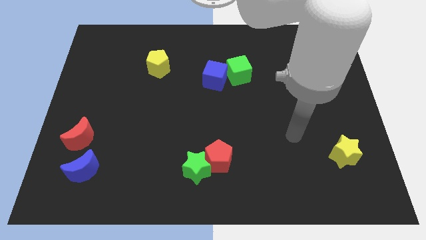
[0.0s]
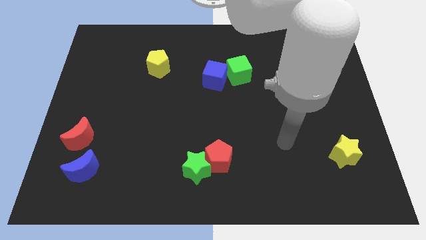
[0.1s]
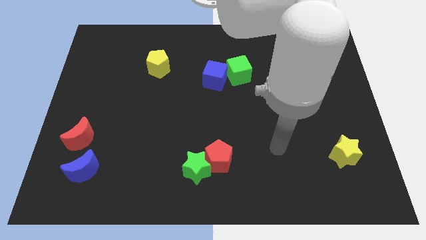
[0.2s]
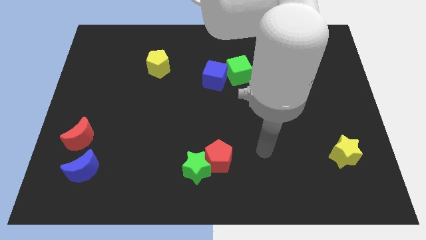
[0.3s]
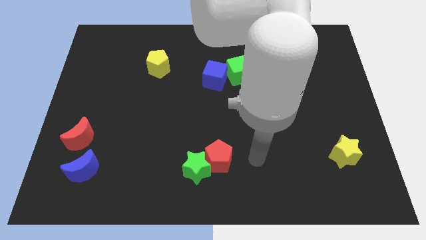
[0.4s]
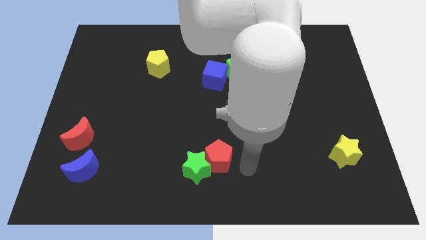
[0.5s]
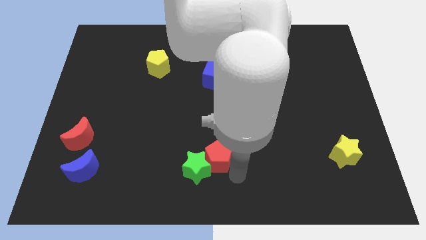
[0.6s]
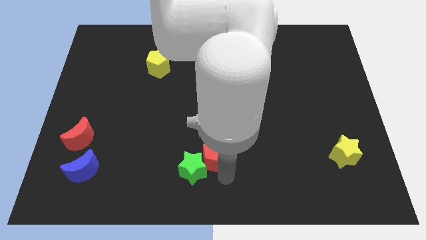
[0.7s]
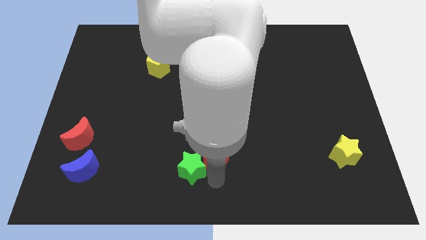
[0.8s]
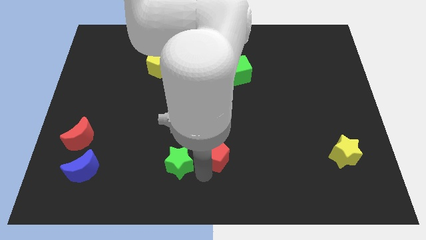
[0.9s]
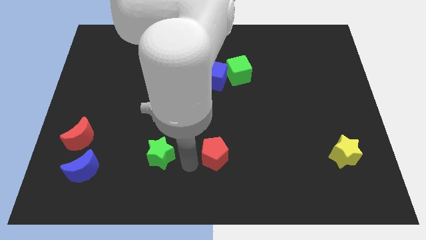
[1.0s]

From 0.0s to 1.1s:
move the red pentagon away from the green star

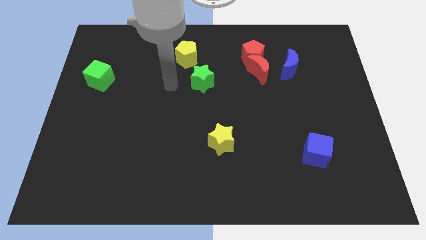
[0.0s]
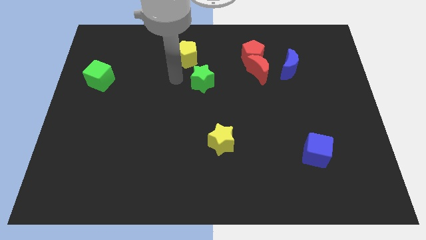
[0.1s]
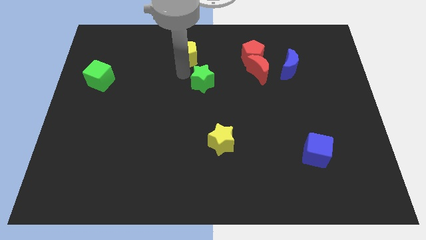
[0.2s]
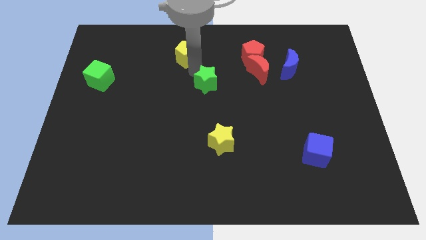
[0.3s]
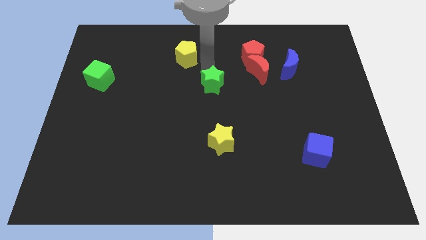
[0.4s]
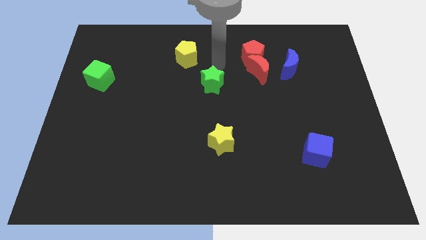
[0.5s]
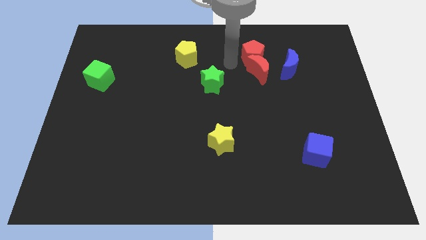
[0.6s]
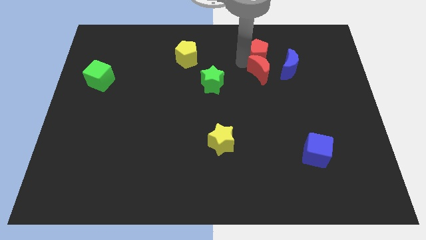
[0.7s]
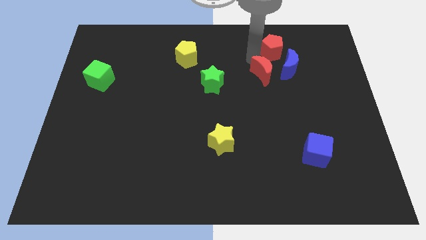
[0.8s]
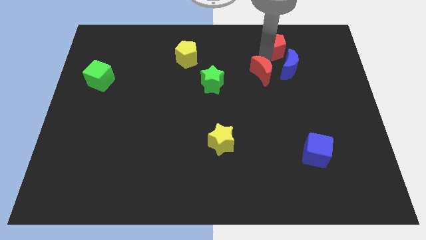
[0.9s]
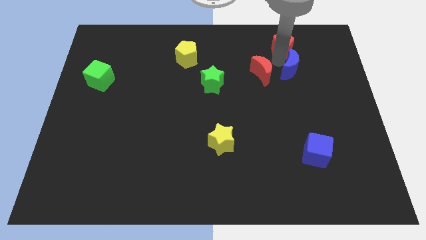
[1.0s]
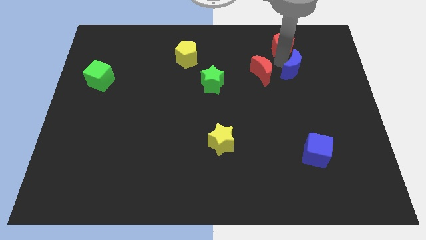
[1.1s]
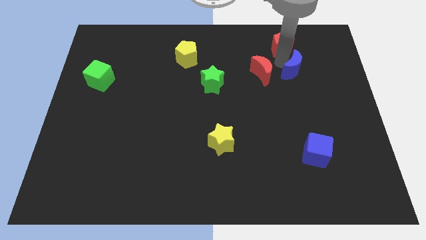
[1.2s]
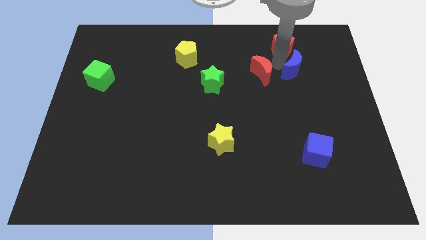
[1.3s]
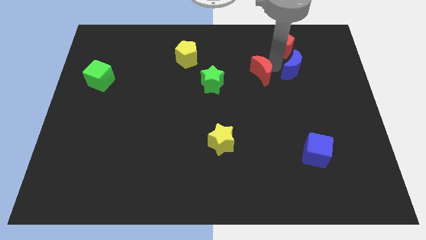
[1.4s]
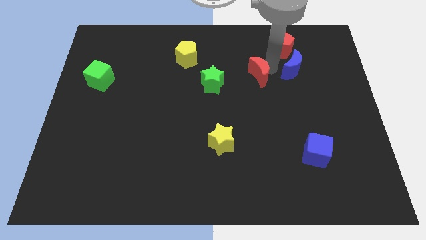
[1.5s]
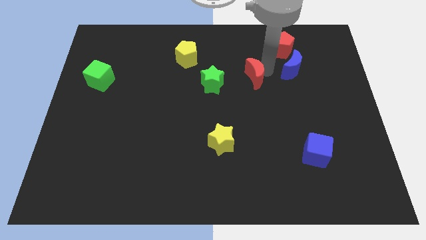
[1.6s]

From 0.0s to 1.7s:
separate the red moon from the red pentagon and blue moon

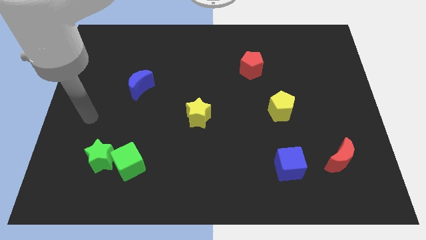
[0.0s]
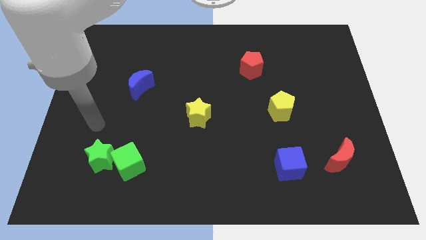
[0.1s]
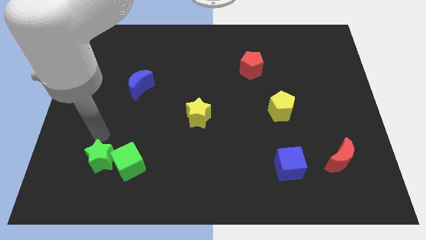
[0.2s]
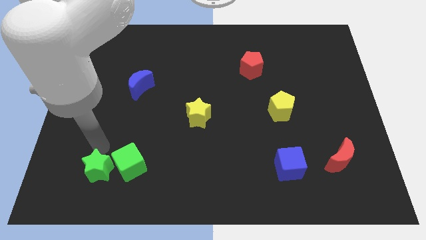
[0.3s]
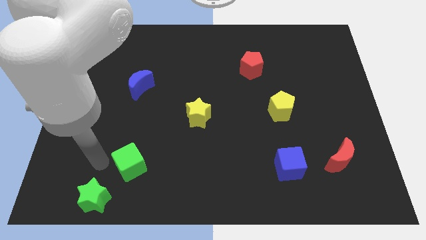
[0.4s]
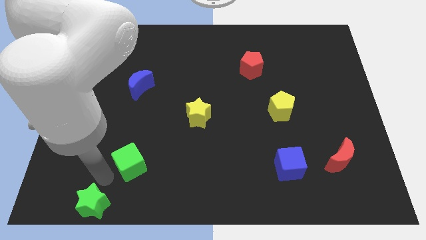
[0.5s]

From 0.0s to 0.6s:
pull the green cube apart from the green star

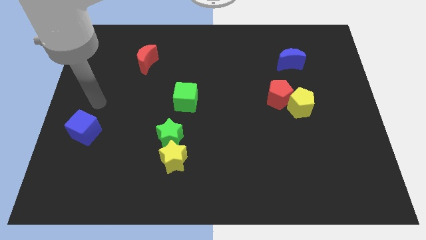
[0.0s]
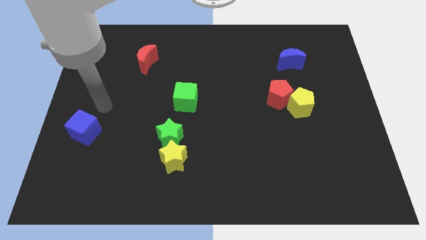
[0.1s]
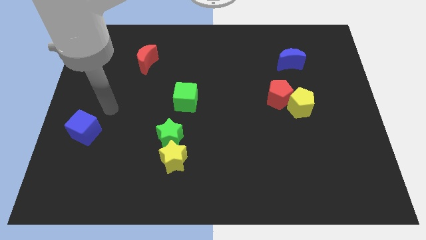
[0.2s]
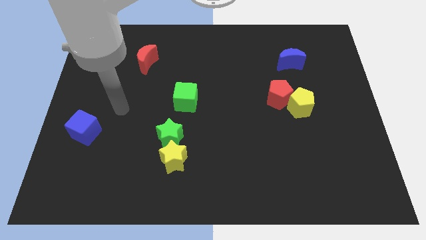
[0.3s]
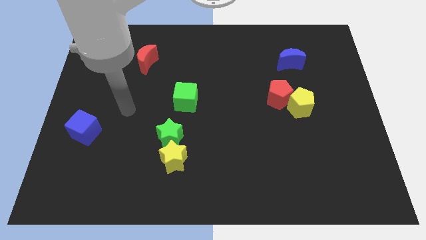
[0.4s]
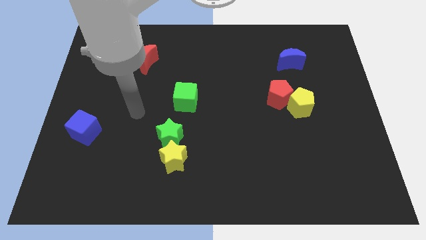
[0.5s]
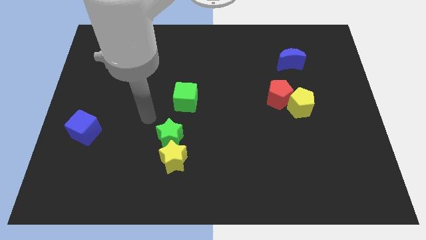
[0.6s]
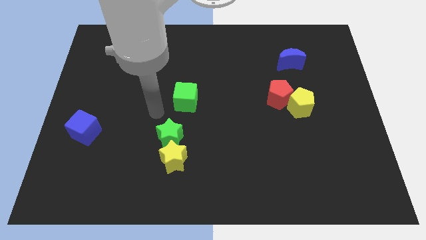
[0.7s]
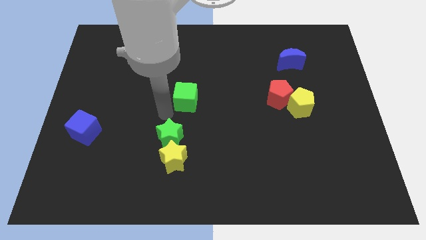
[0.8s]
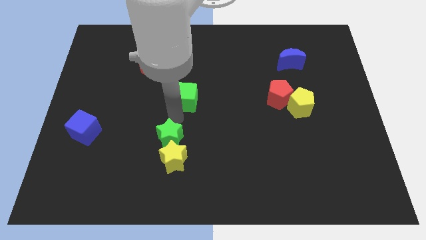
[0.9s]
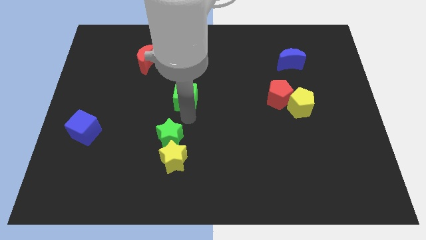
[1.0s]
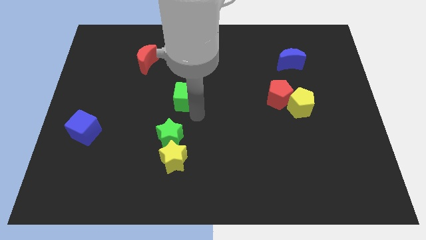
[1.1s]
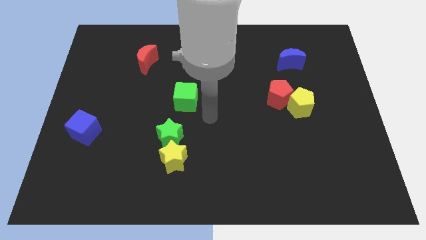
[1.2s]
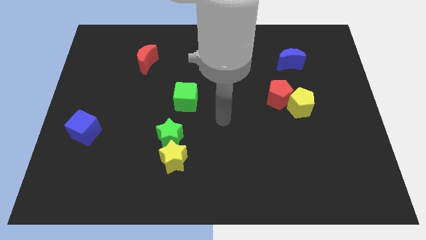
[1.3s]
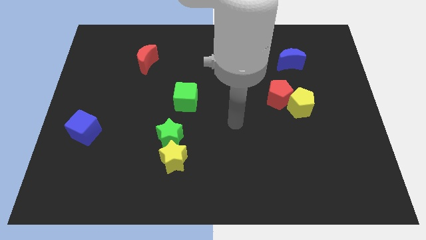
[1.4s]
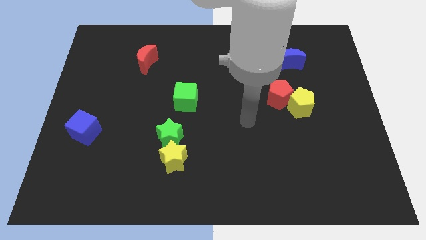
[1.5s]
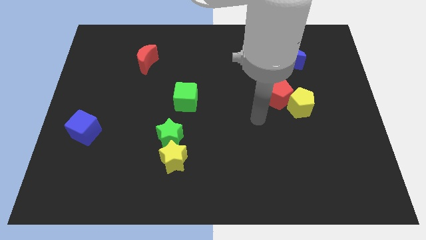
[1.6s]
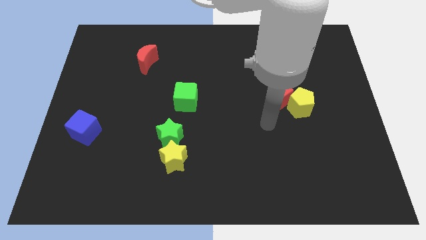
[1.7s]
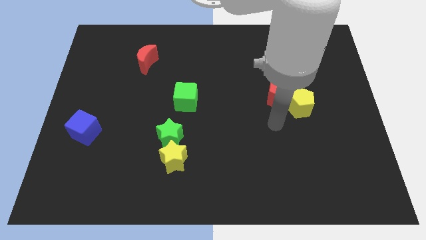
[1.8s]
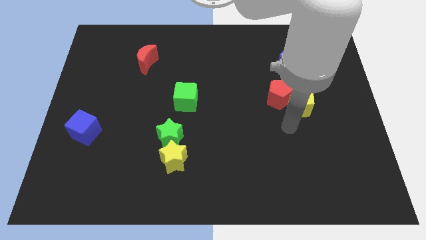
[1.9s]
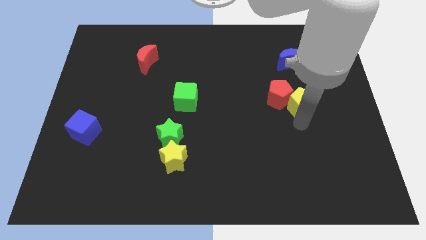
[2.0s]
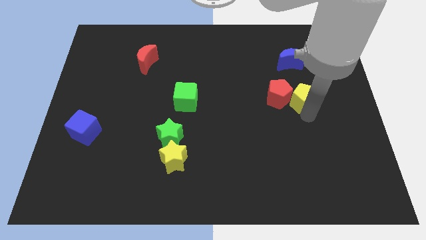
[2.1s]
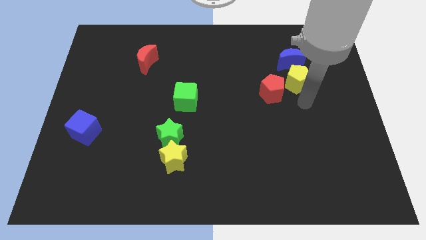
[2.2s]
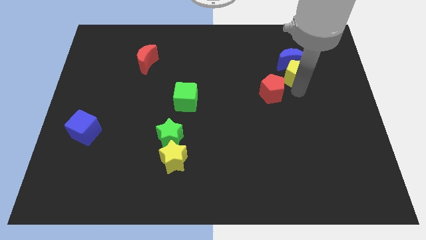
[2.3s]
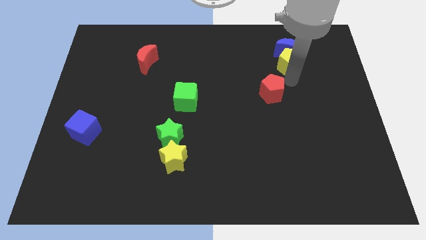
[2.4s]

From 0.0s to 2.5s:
move the red pentagon away from the yellow pentagon

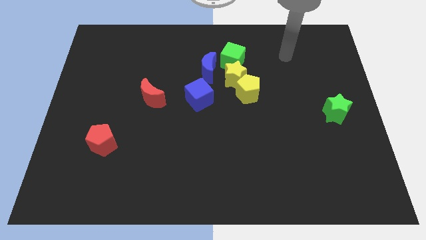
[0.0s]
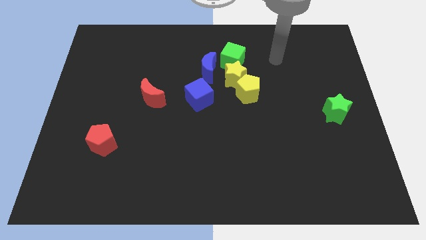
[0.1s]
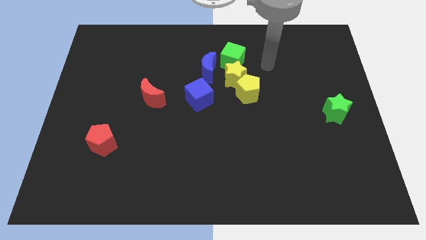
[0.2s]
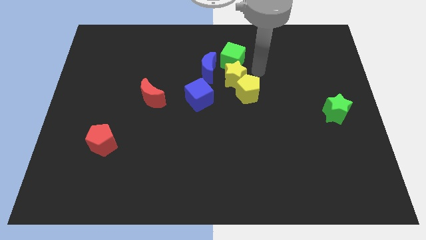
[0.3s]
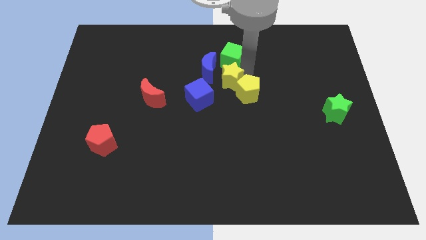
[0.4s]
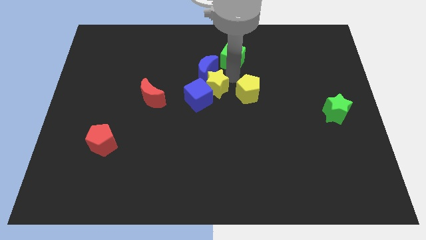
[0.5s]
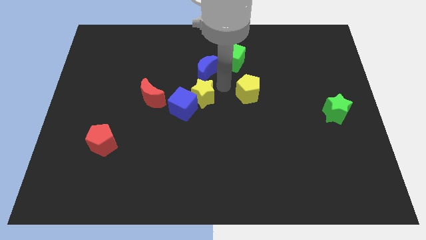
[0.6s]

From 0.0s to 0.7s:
move the yellow pentagon away from the yellow star

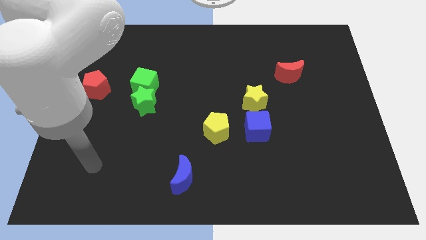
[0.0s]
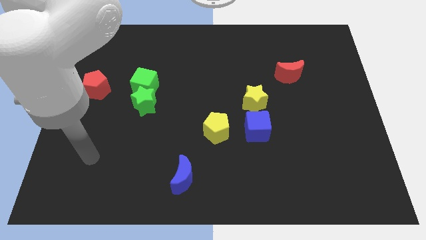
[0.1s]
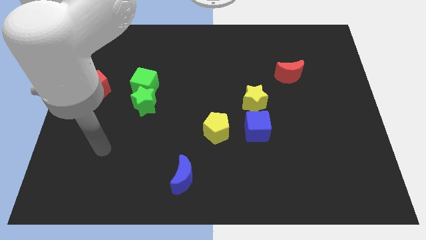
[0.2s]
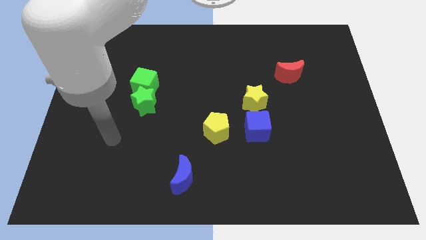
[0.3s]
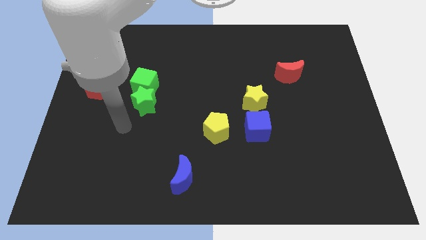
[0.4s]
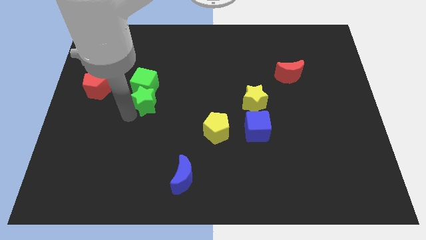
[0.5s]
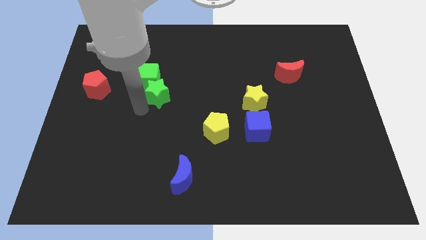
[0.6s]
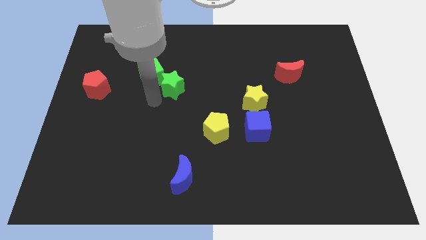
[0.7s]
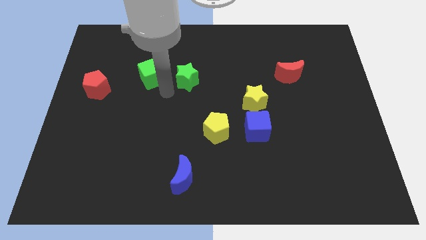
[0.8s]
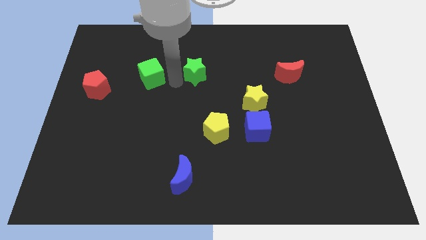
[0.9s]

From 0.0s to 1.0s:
move the green cube away from the green star

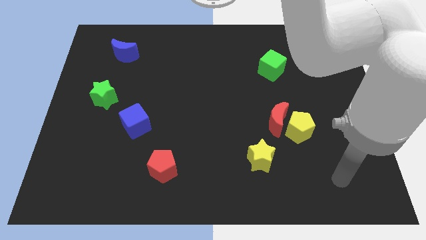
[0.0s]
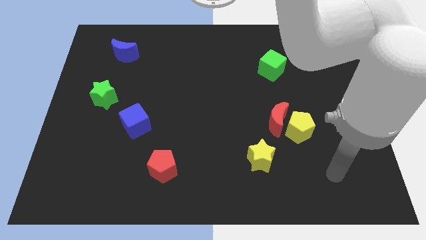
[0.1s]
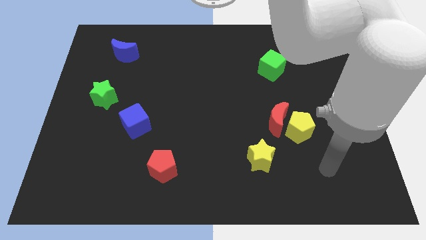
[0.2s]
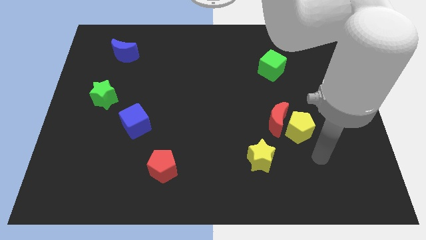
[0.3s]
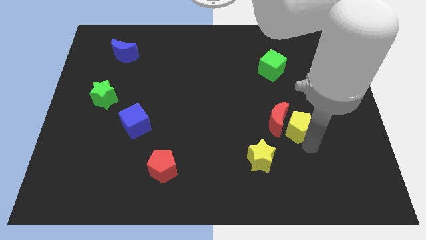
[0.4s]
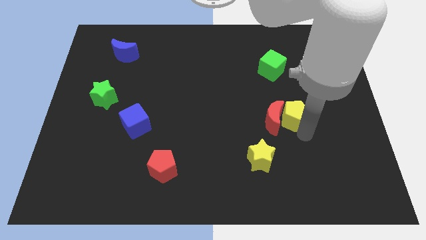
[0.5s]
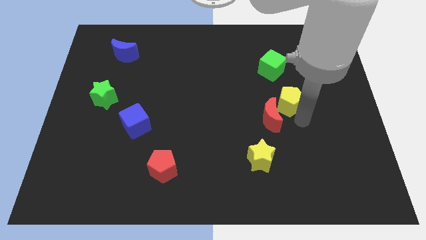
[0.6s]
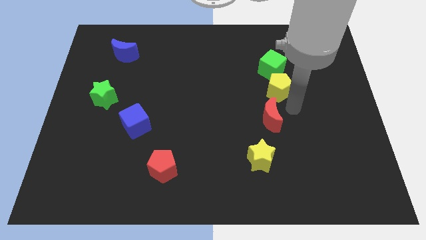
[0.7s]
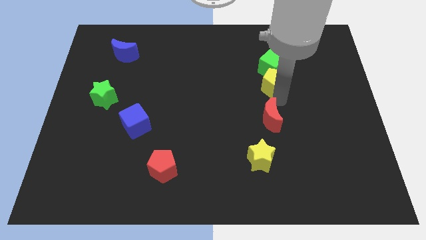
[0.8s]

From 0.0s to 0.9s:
move the red moon away from the yellow pentagon

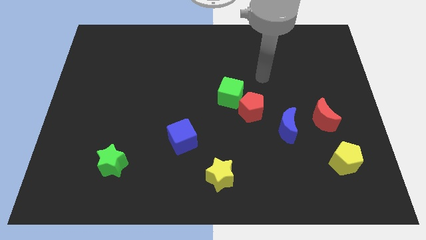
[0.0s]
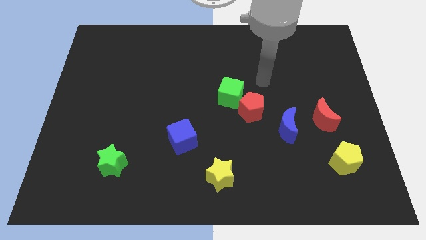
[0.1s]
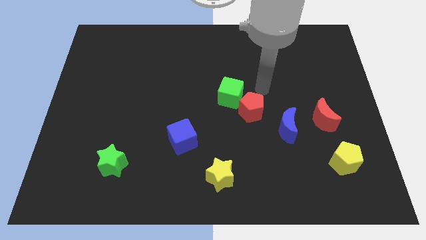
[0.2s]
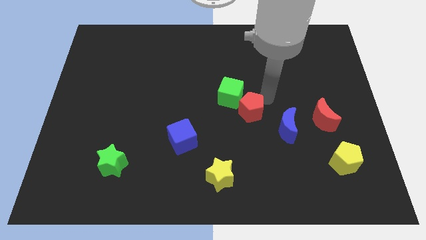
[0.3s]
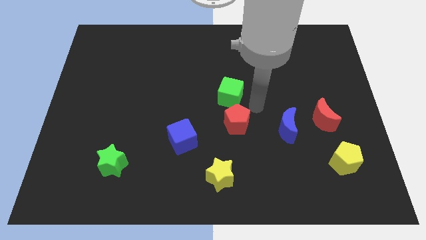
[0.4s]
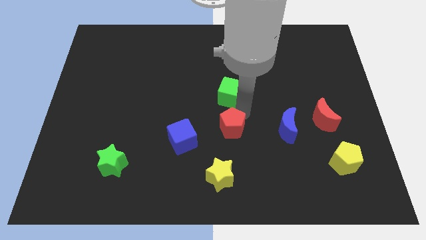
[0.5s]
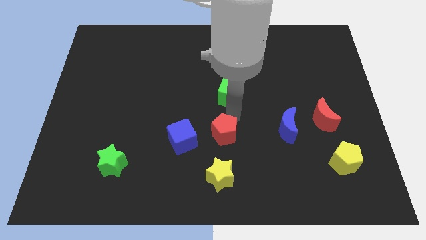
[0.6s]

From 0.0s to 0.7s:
move the green cube away from the red pentagon
